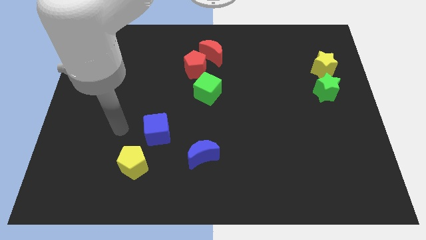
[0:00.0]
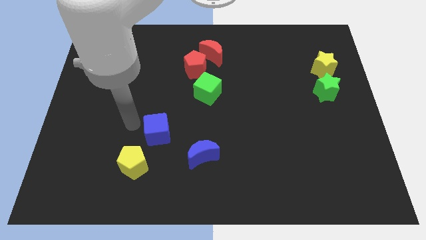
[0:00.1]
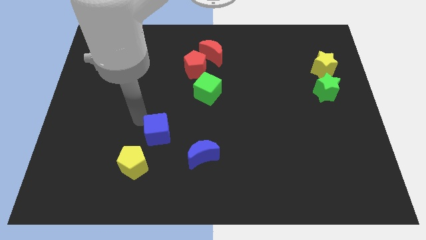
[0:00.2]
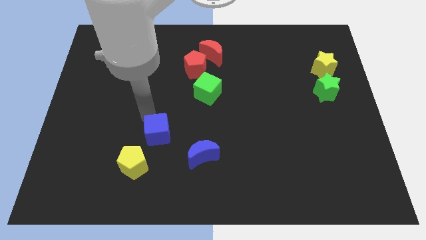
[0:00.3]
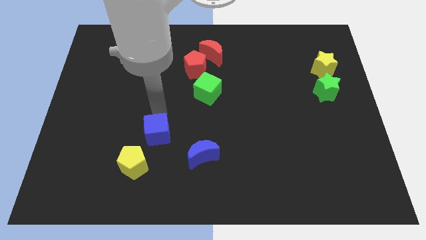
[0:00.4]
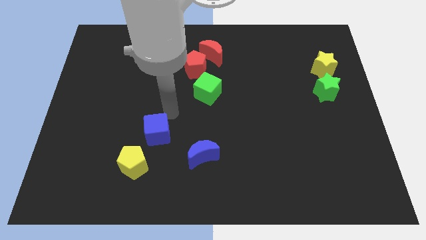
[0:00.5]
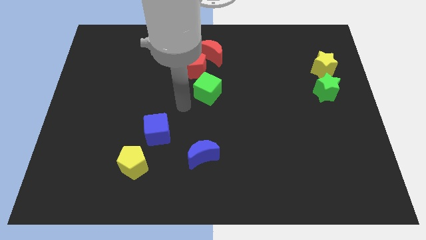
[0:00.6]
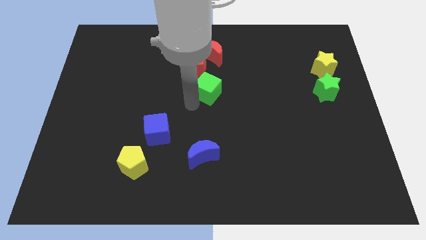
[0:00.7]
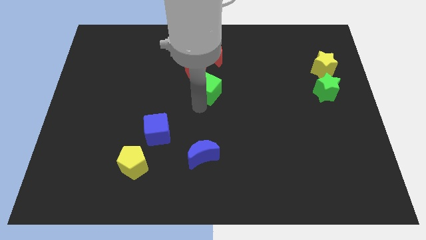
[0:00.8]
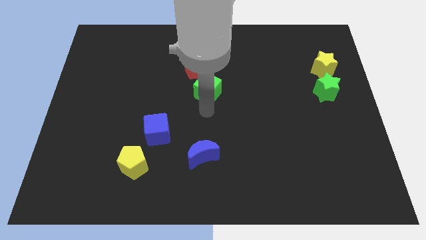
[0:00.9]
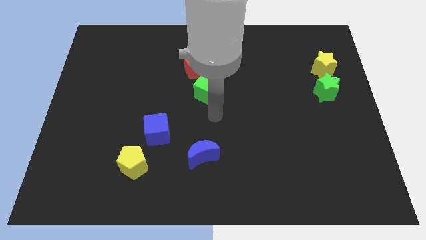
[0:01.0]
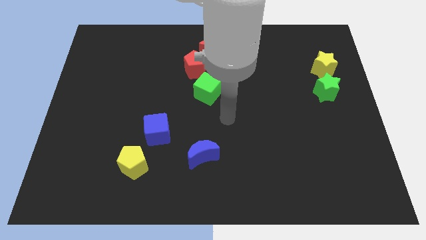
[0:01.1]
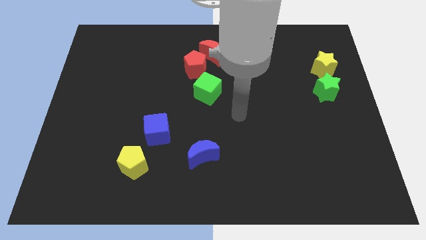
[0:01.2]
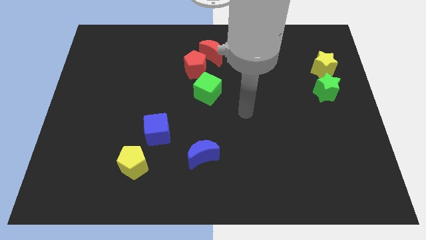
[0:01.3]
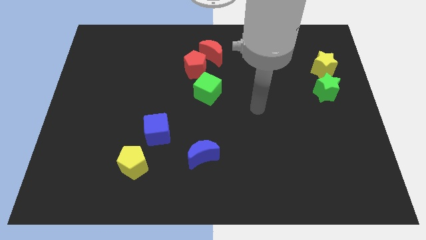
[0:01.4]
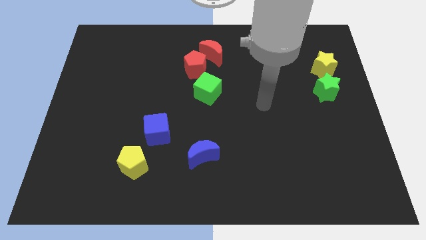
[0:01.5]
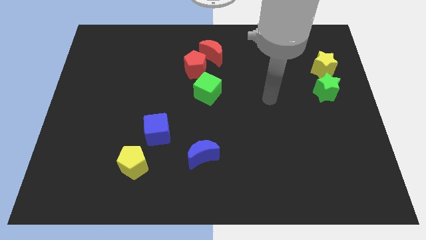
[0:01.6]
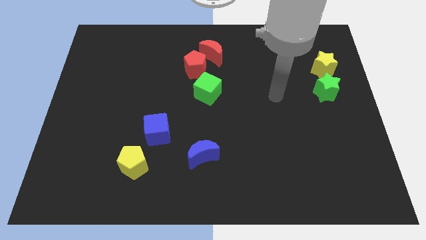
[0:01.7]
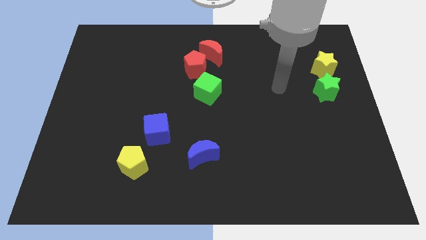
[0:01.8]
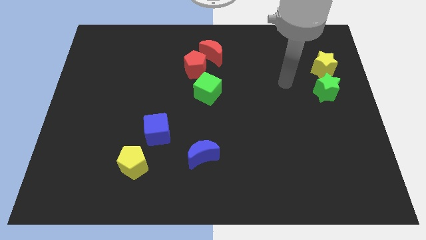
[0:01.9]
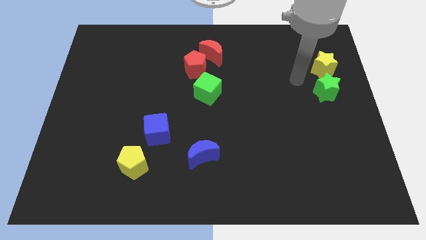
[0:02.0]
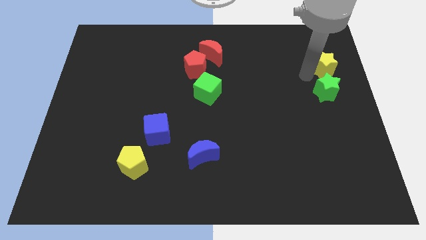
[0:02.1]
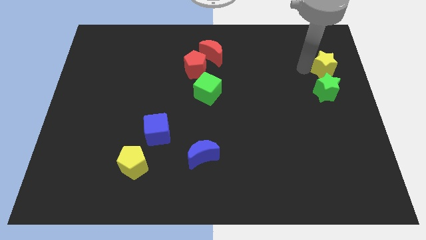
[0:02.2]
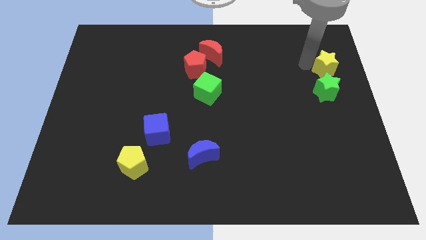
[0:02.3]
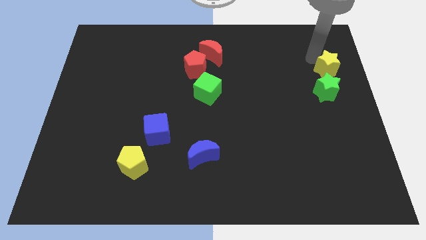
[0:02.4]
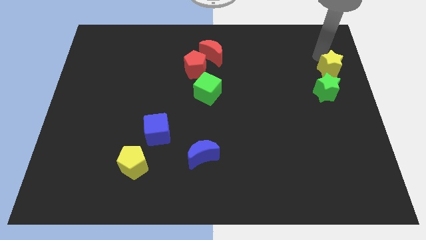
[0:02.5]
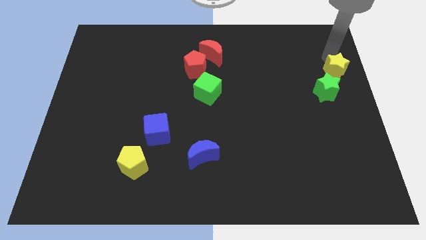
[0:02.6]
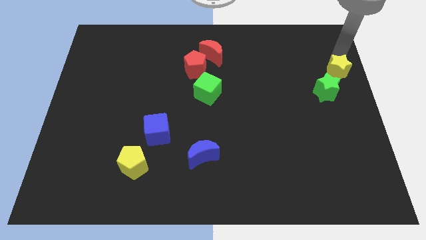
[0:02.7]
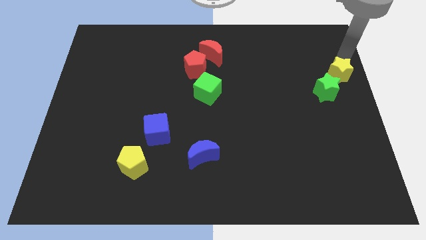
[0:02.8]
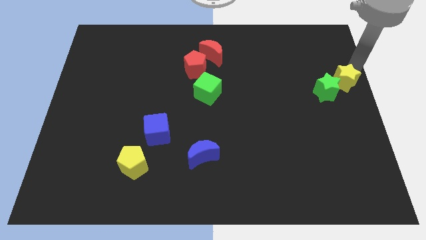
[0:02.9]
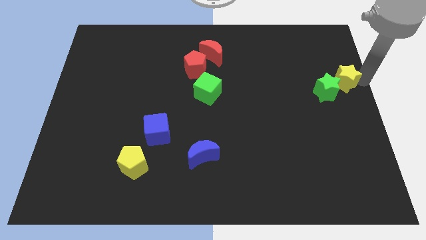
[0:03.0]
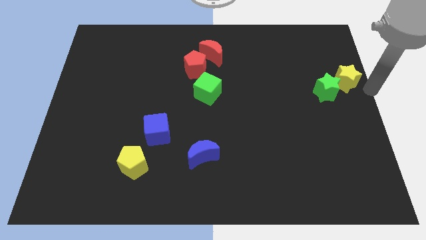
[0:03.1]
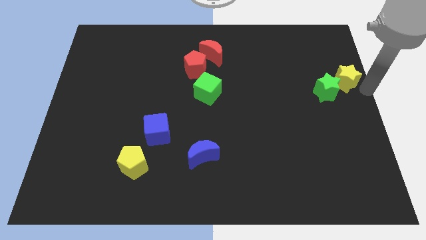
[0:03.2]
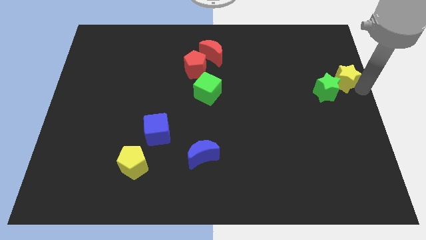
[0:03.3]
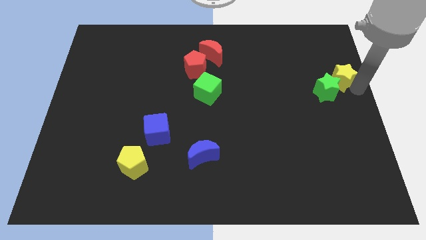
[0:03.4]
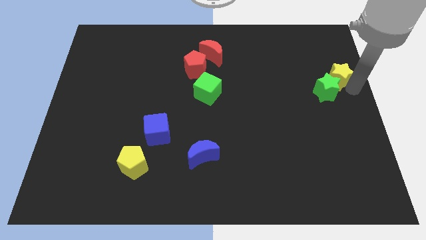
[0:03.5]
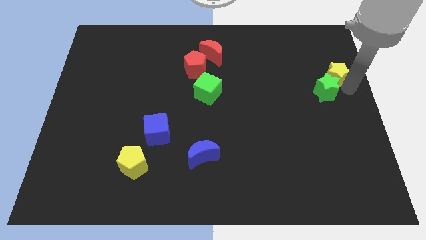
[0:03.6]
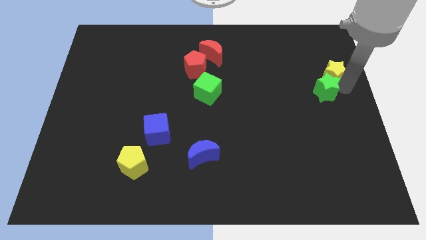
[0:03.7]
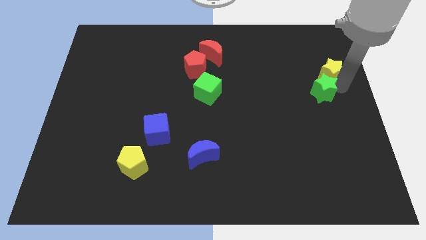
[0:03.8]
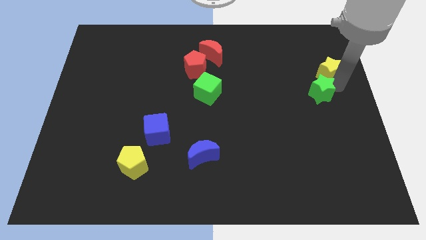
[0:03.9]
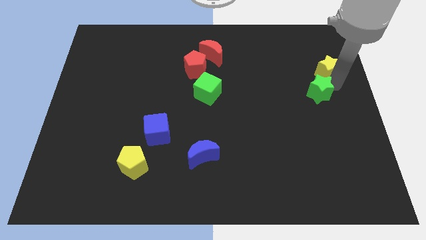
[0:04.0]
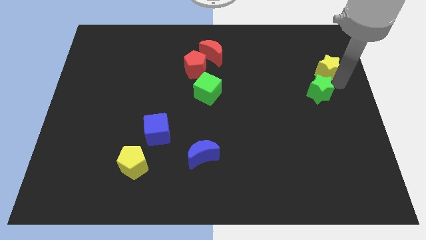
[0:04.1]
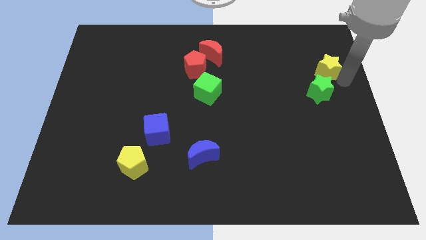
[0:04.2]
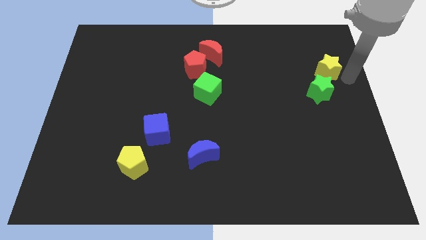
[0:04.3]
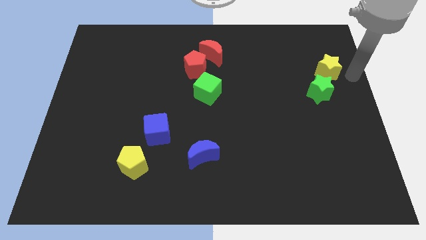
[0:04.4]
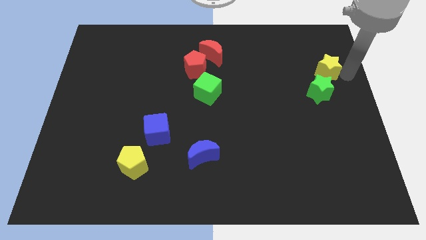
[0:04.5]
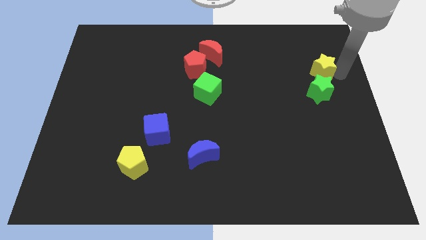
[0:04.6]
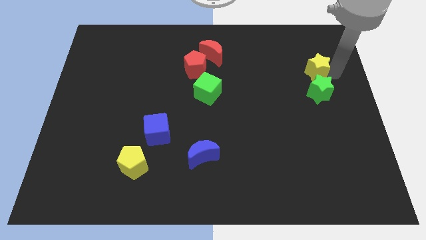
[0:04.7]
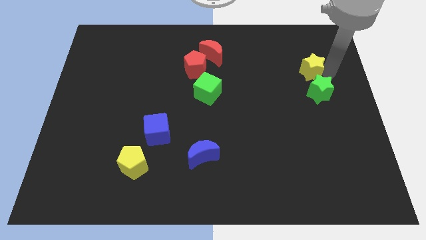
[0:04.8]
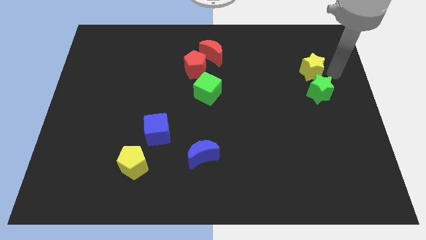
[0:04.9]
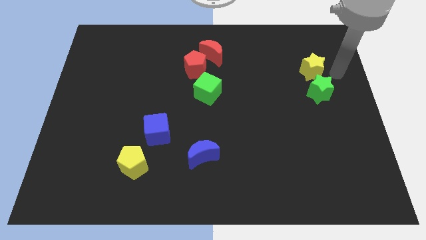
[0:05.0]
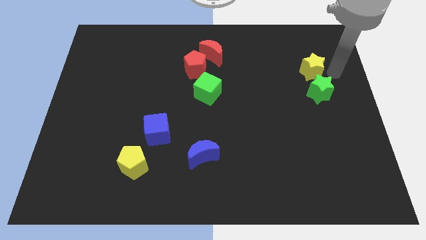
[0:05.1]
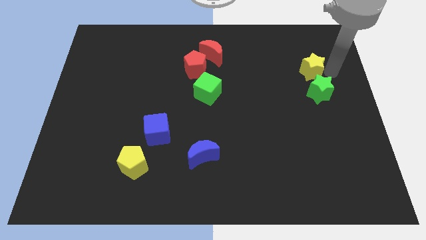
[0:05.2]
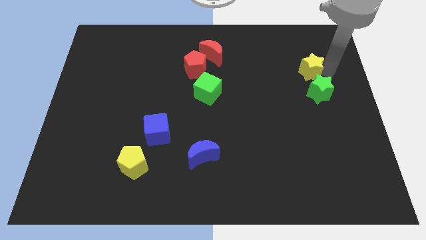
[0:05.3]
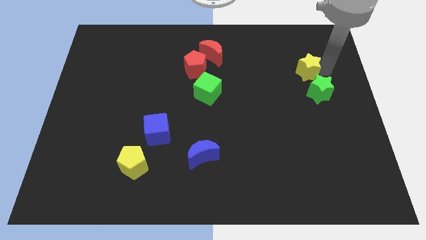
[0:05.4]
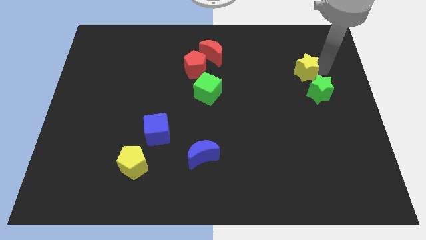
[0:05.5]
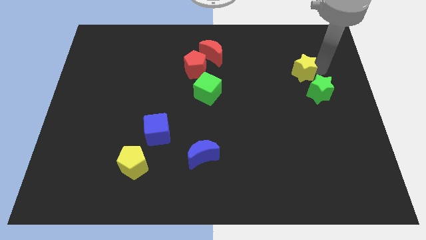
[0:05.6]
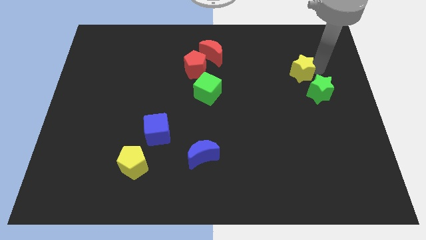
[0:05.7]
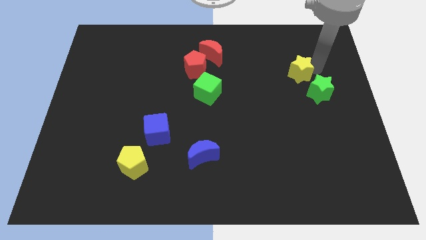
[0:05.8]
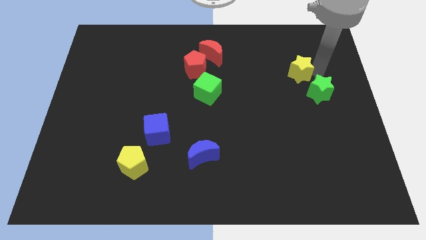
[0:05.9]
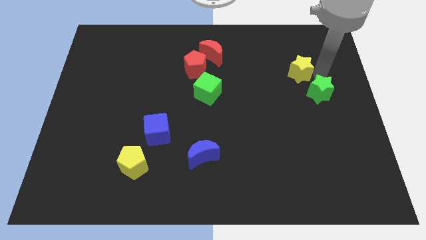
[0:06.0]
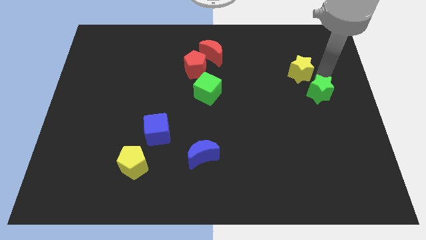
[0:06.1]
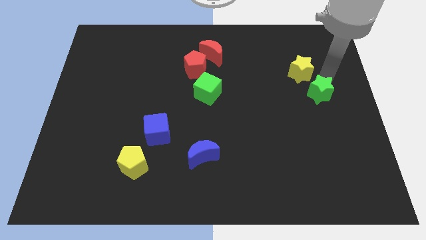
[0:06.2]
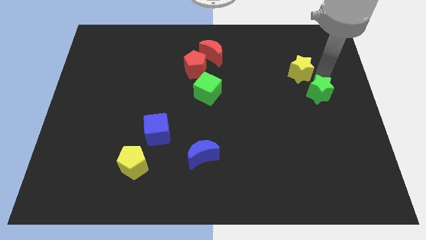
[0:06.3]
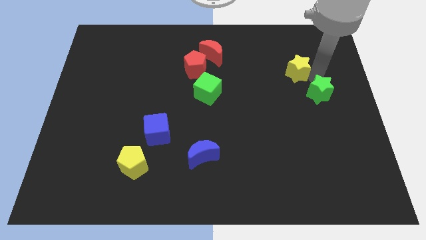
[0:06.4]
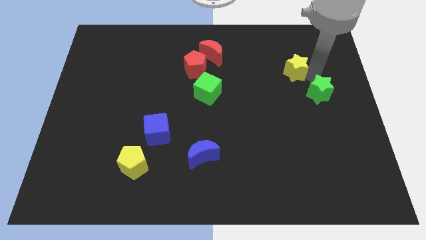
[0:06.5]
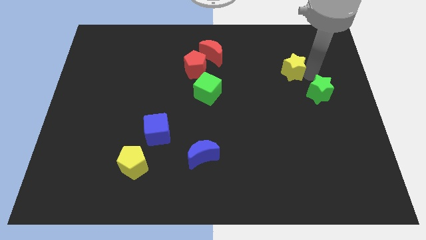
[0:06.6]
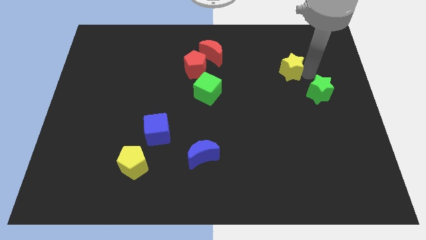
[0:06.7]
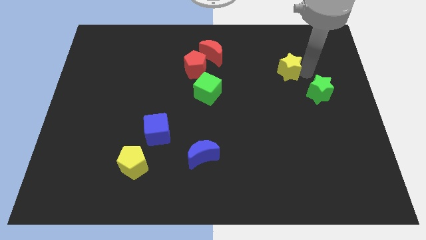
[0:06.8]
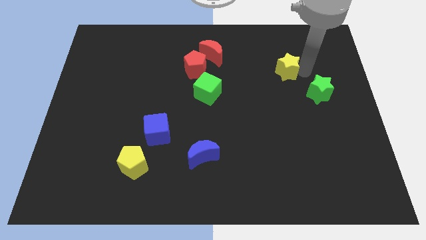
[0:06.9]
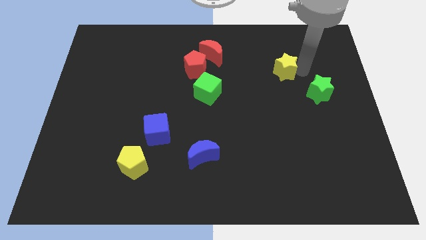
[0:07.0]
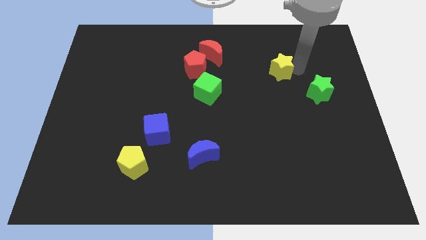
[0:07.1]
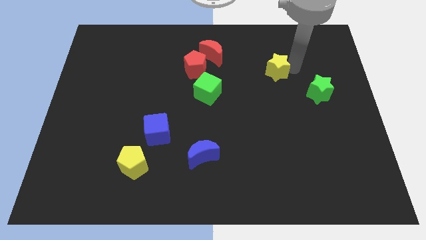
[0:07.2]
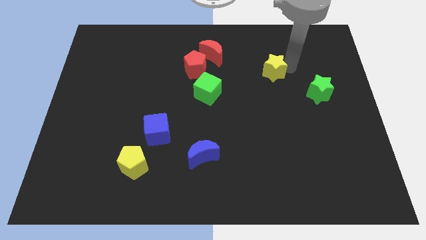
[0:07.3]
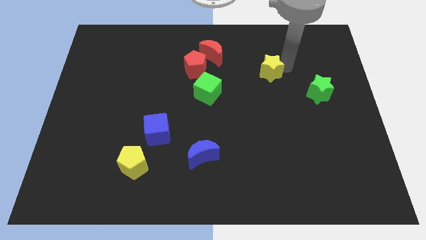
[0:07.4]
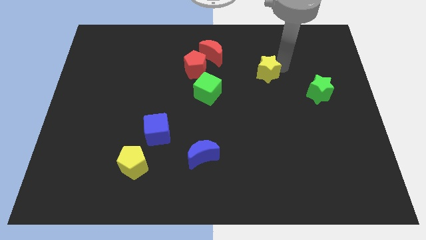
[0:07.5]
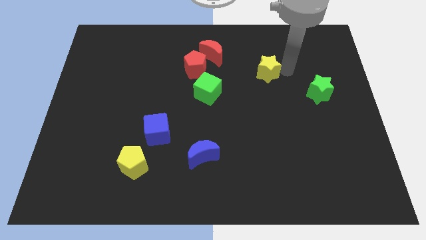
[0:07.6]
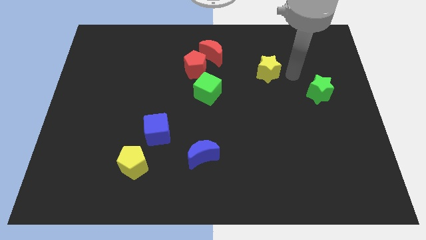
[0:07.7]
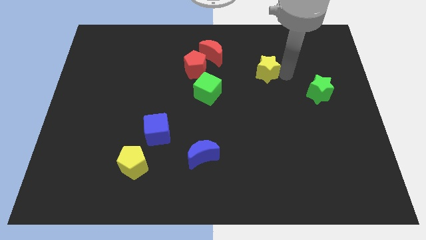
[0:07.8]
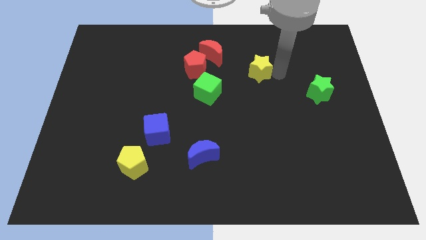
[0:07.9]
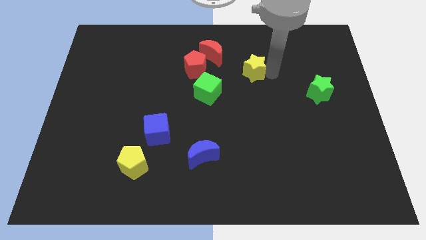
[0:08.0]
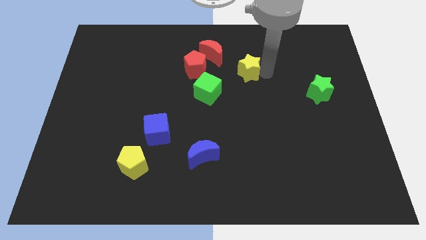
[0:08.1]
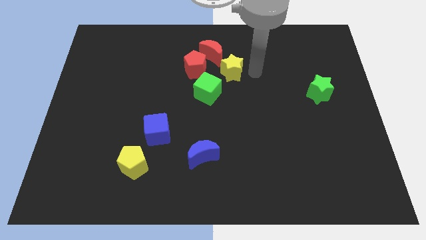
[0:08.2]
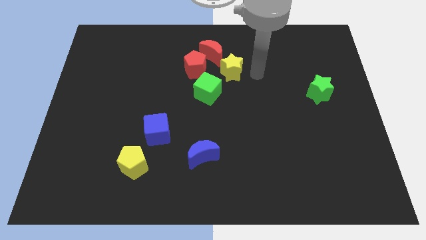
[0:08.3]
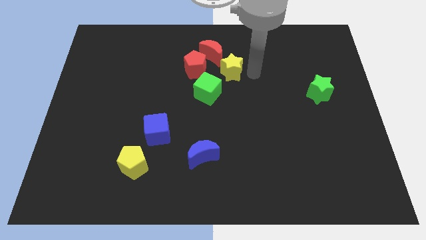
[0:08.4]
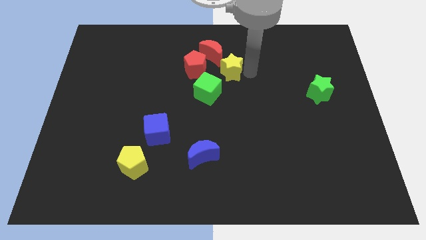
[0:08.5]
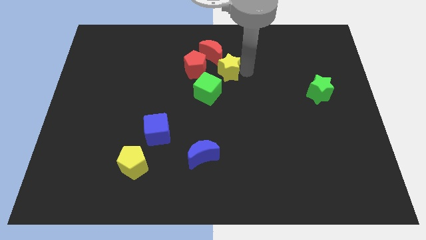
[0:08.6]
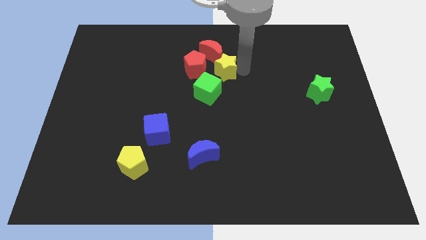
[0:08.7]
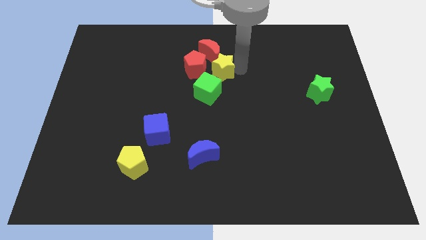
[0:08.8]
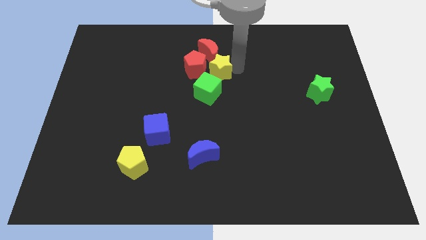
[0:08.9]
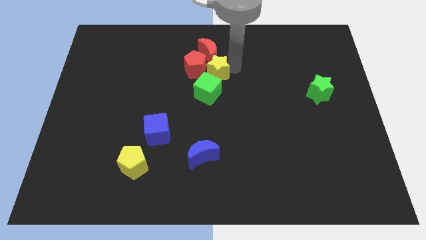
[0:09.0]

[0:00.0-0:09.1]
push the yellow star to the red pentagon
